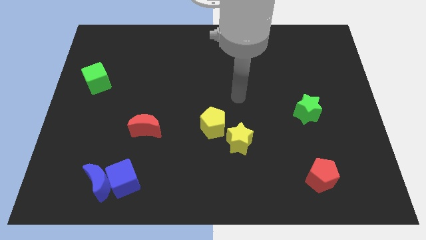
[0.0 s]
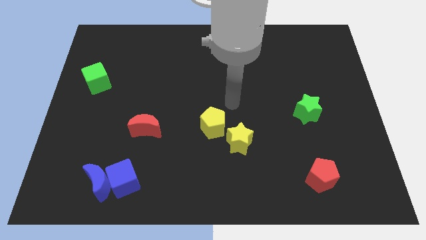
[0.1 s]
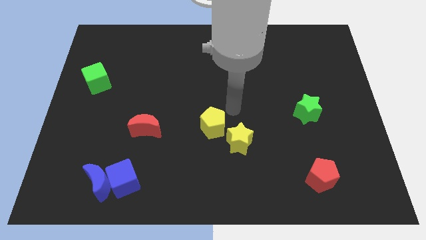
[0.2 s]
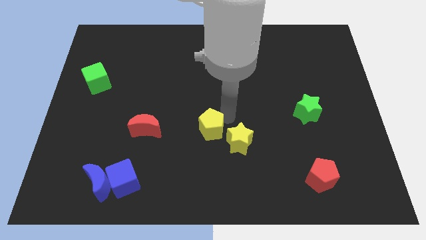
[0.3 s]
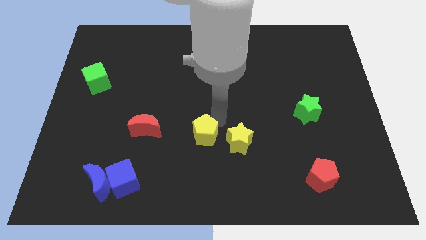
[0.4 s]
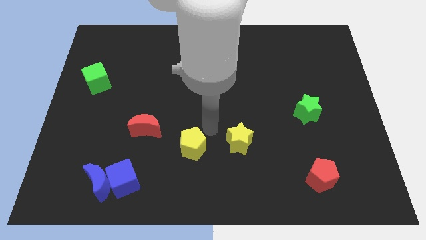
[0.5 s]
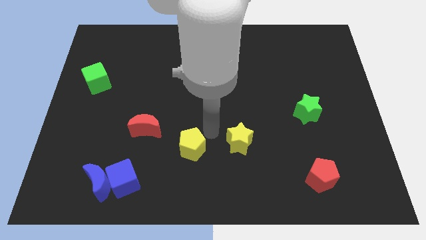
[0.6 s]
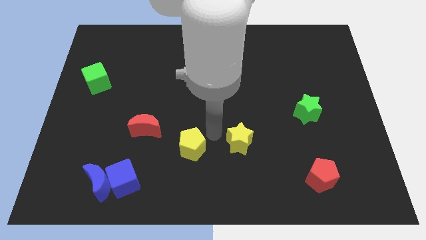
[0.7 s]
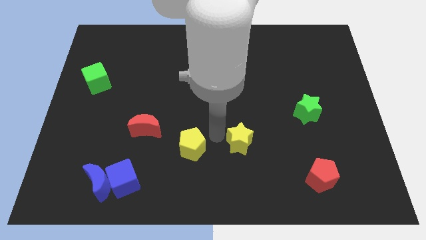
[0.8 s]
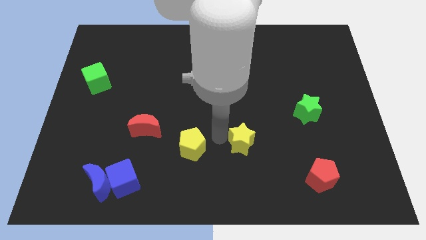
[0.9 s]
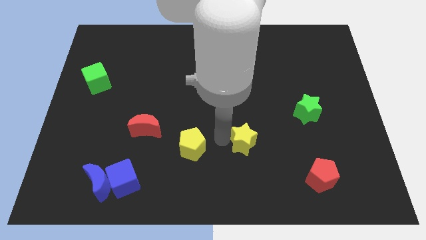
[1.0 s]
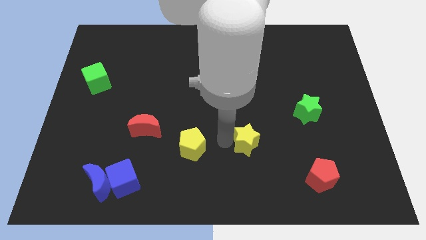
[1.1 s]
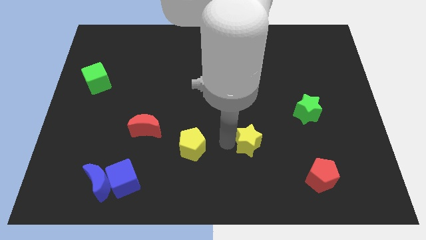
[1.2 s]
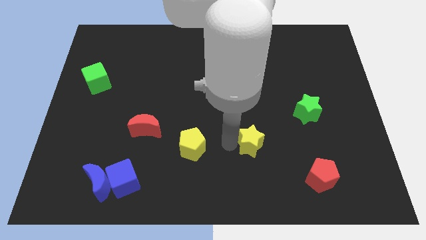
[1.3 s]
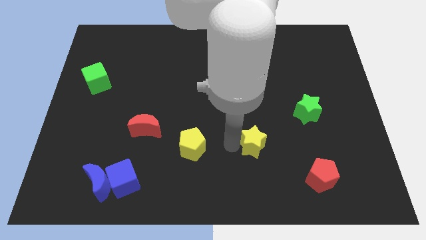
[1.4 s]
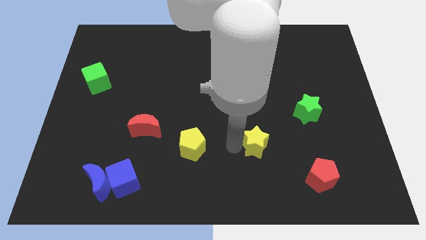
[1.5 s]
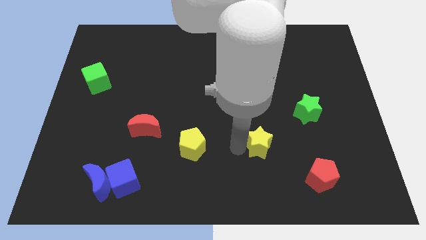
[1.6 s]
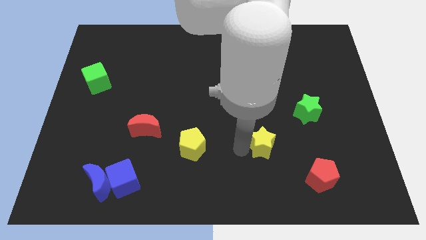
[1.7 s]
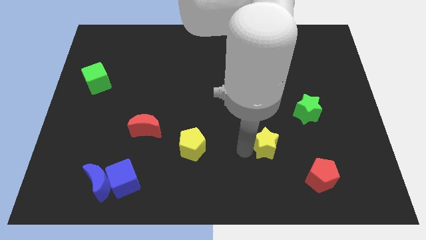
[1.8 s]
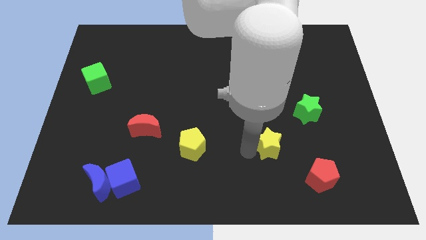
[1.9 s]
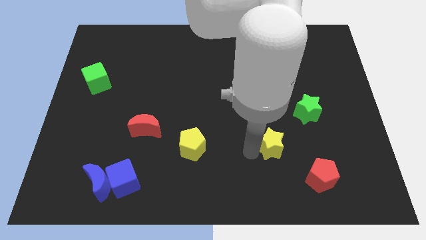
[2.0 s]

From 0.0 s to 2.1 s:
slide the yellow star slightly to the right

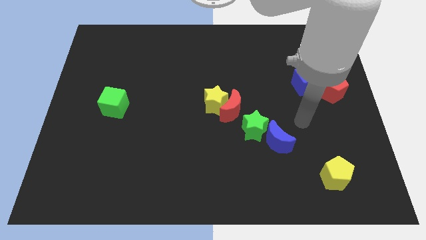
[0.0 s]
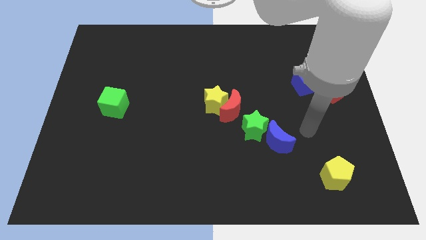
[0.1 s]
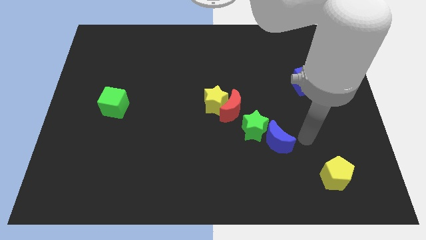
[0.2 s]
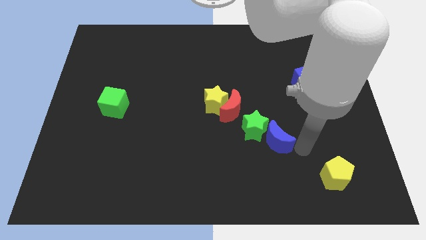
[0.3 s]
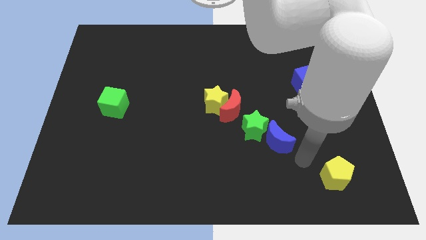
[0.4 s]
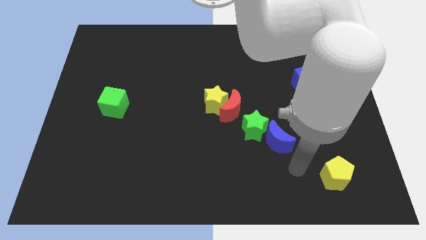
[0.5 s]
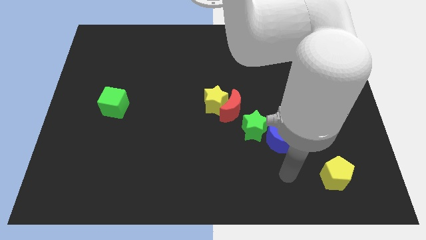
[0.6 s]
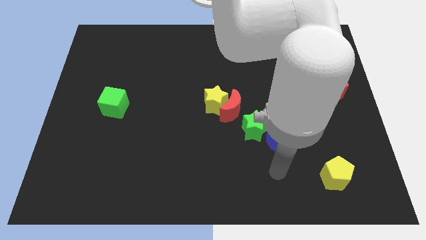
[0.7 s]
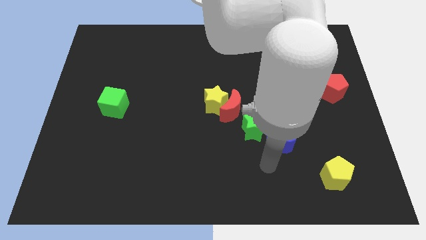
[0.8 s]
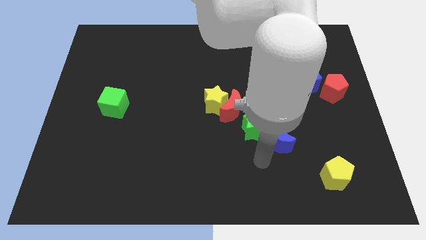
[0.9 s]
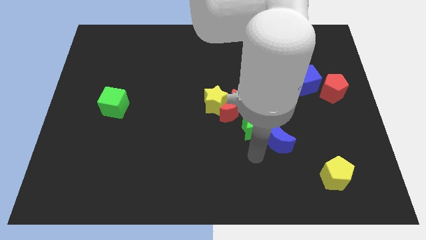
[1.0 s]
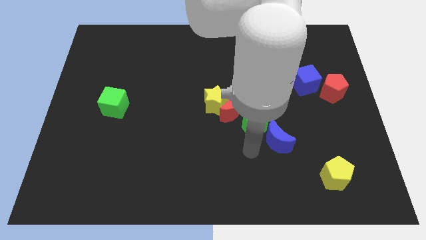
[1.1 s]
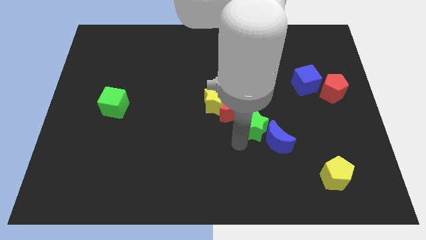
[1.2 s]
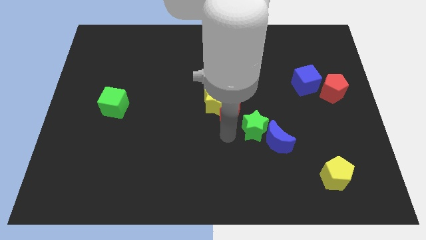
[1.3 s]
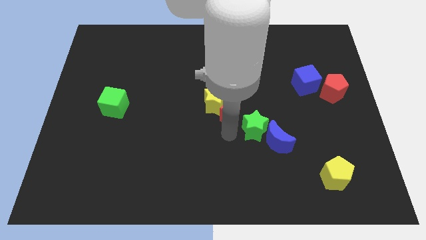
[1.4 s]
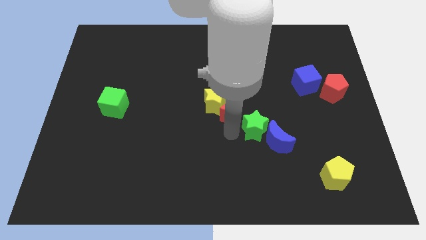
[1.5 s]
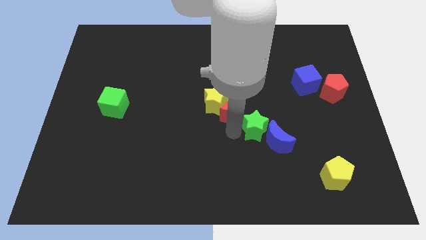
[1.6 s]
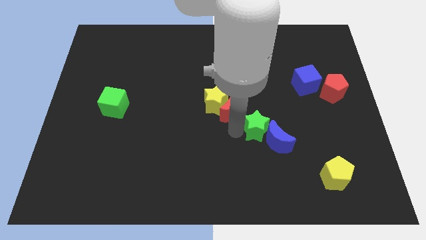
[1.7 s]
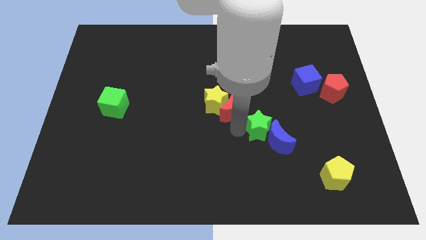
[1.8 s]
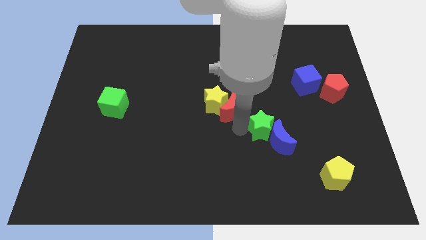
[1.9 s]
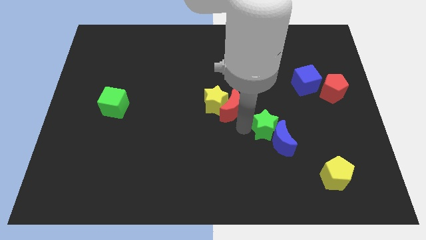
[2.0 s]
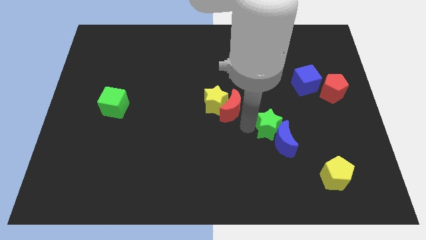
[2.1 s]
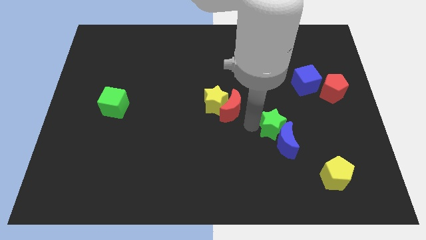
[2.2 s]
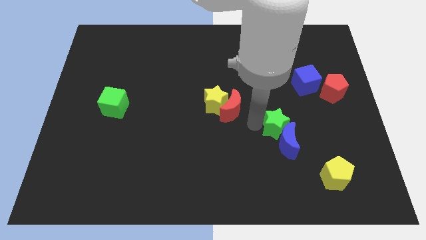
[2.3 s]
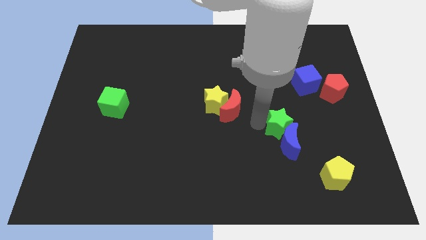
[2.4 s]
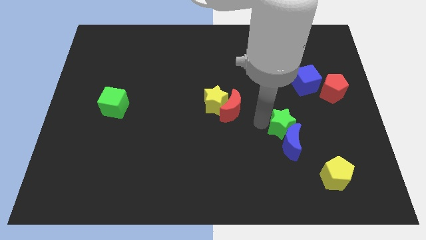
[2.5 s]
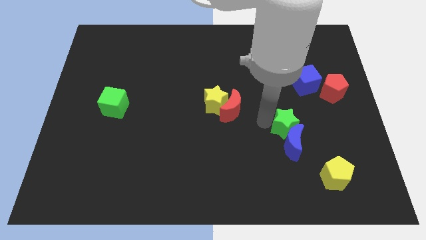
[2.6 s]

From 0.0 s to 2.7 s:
slide the green star to the right a bit

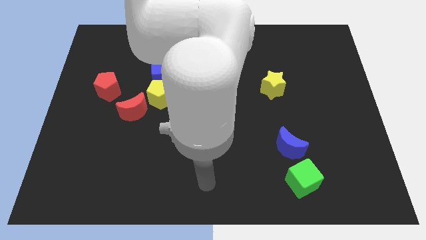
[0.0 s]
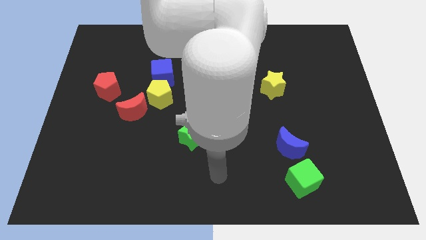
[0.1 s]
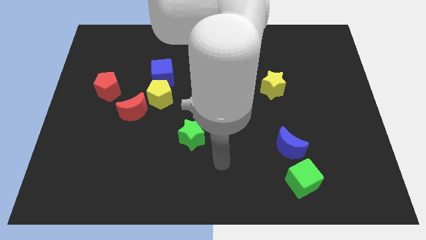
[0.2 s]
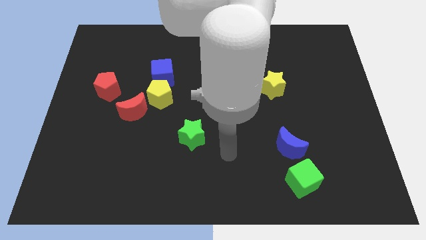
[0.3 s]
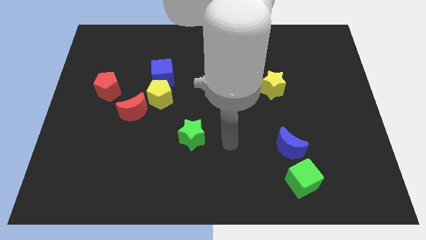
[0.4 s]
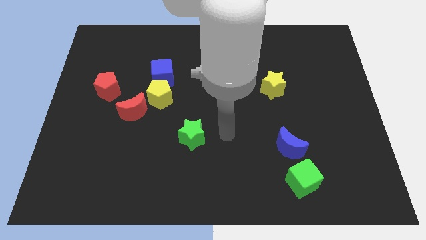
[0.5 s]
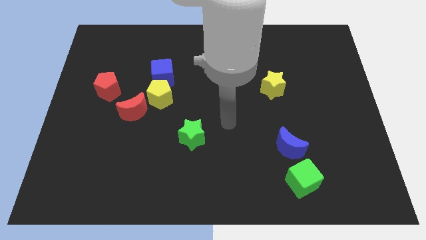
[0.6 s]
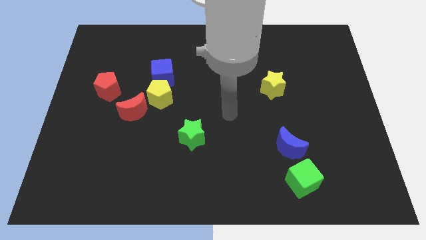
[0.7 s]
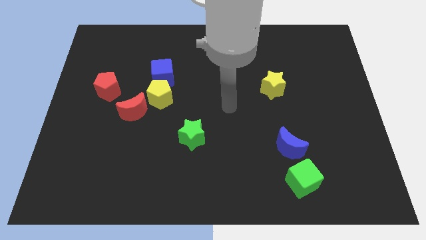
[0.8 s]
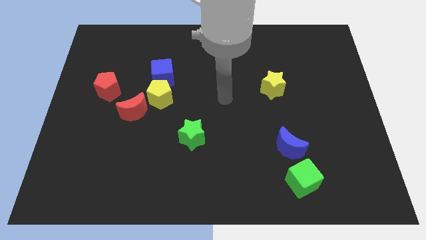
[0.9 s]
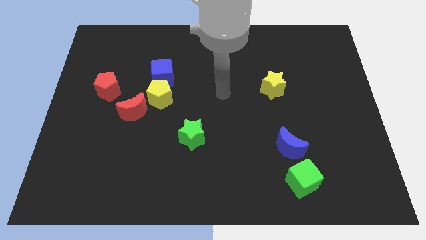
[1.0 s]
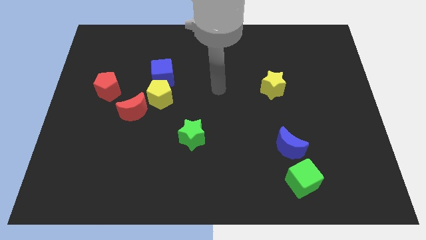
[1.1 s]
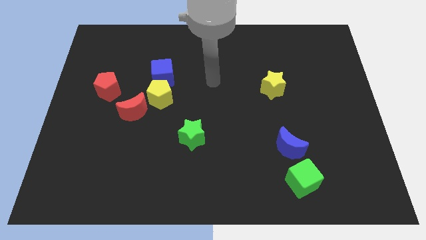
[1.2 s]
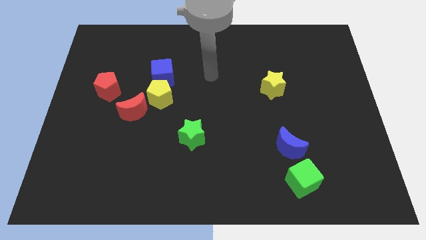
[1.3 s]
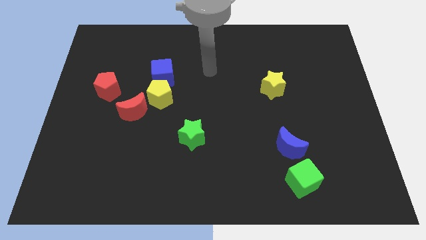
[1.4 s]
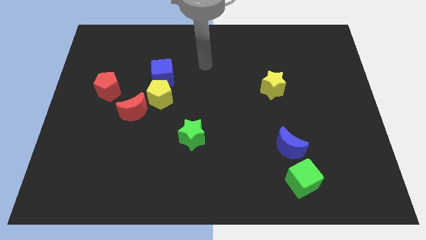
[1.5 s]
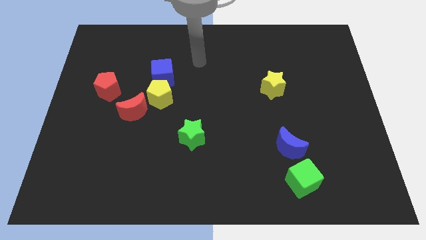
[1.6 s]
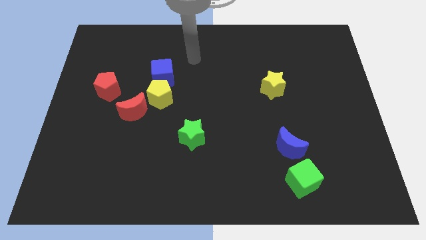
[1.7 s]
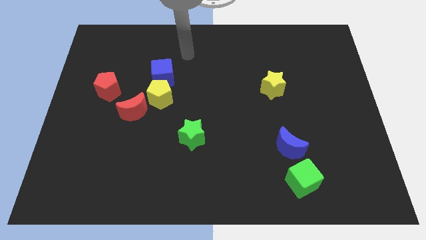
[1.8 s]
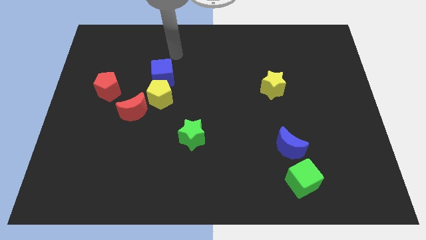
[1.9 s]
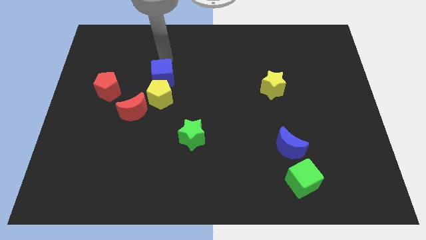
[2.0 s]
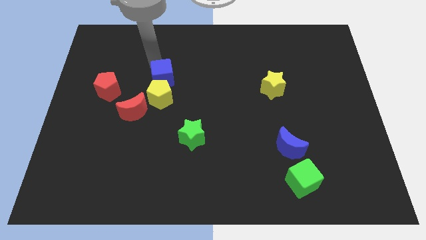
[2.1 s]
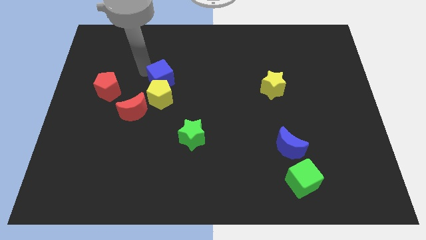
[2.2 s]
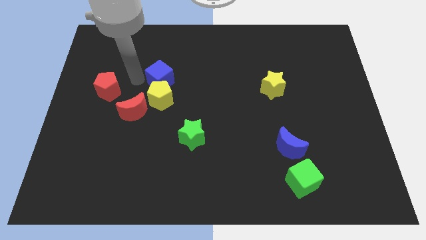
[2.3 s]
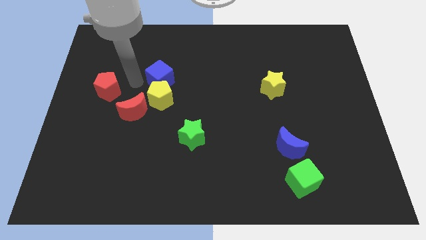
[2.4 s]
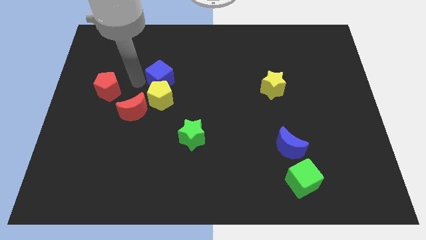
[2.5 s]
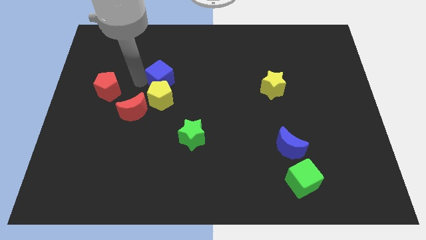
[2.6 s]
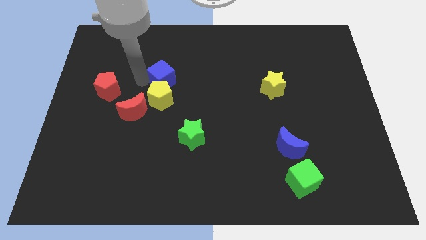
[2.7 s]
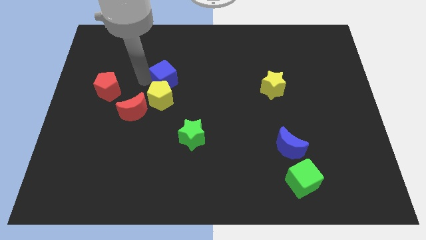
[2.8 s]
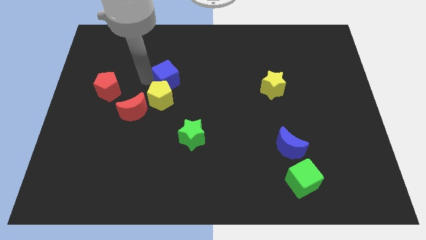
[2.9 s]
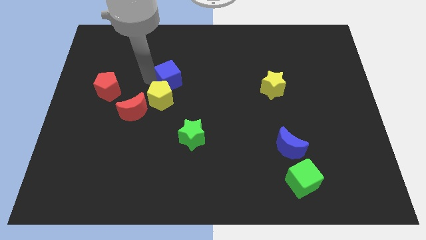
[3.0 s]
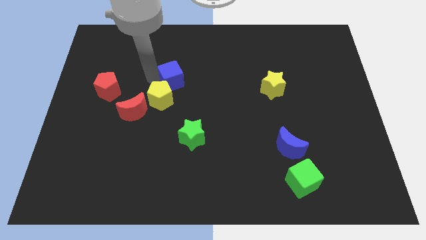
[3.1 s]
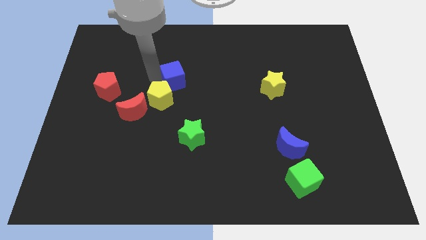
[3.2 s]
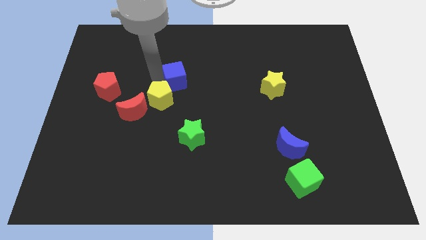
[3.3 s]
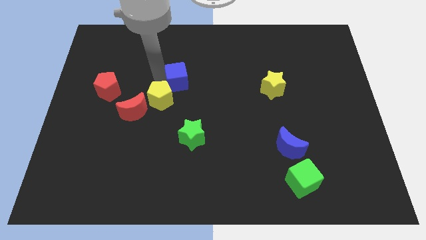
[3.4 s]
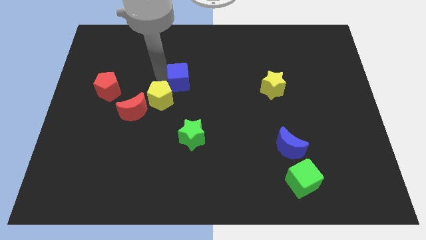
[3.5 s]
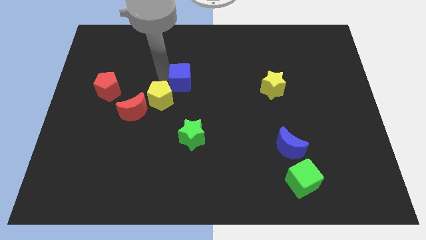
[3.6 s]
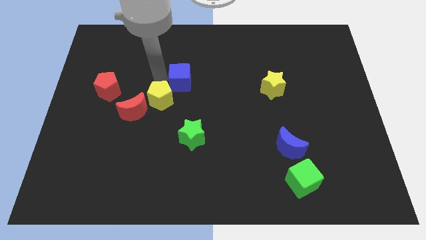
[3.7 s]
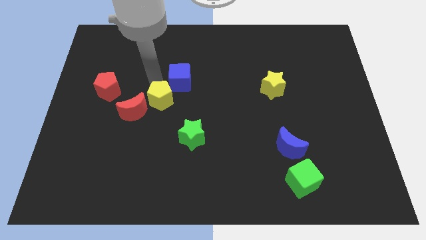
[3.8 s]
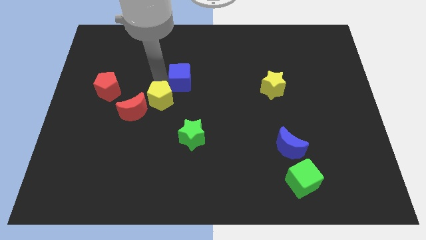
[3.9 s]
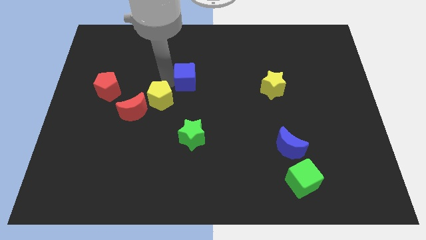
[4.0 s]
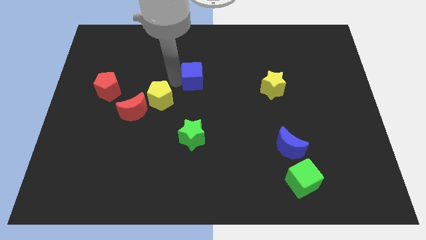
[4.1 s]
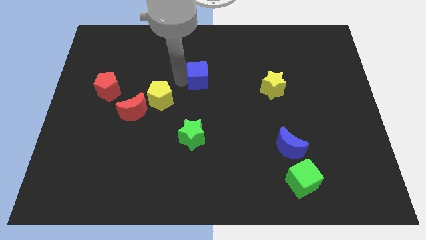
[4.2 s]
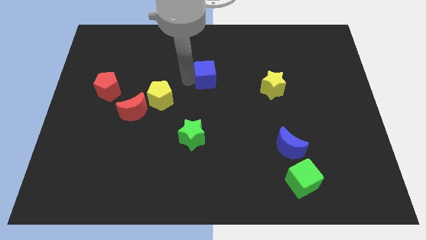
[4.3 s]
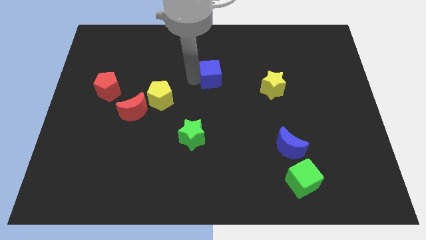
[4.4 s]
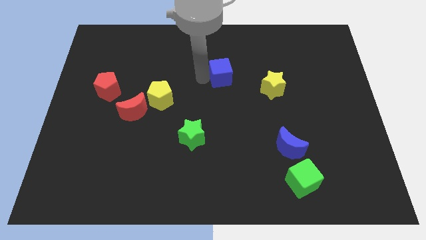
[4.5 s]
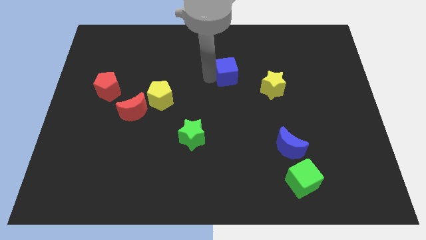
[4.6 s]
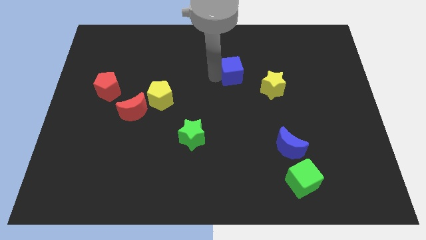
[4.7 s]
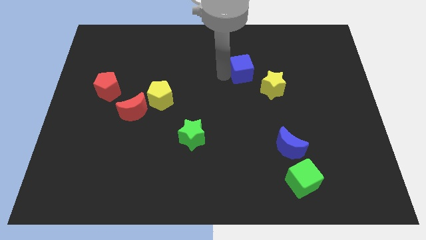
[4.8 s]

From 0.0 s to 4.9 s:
push the blue cube to the right
